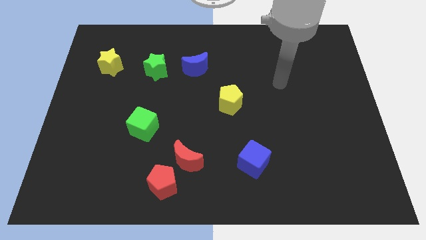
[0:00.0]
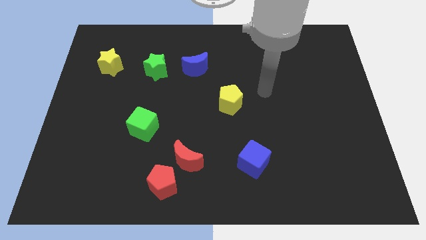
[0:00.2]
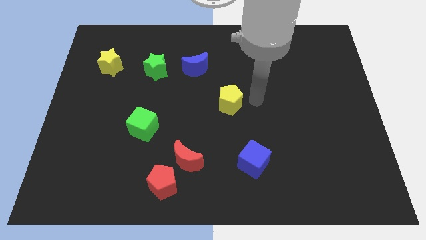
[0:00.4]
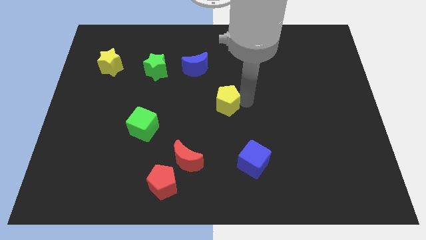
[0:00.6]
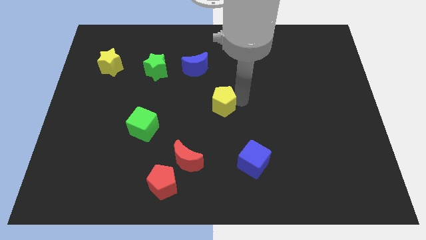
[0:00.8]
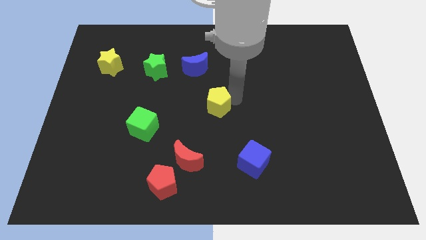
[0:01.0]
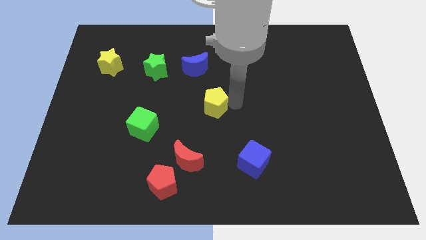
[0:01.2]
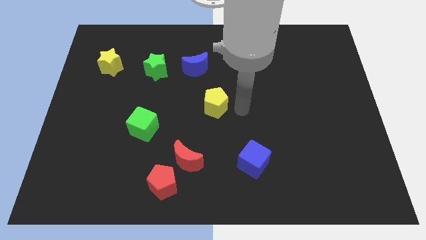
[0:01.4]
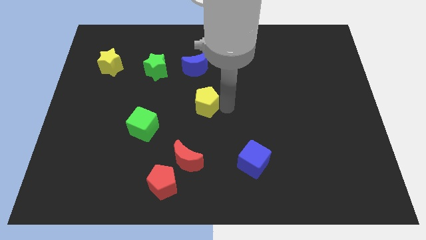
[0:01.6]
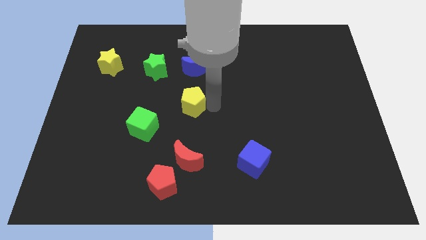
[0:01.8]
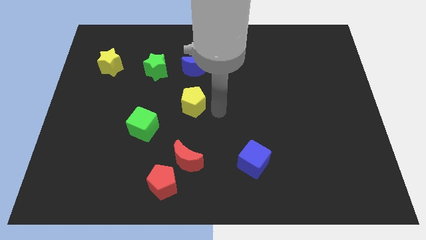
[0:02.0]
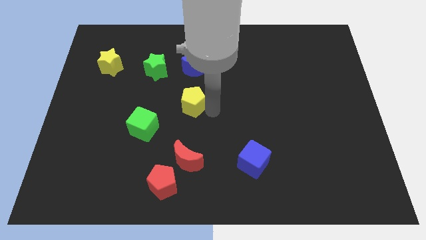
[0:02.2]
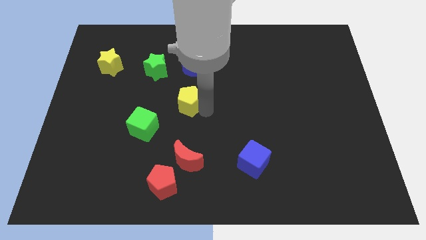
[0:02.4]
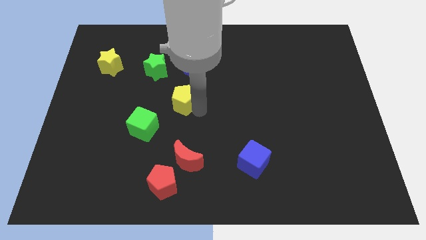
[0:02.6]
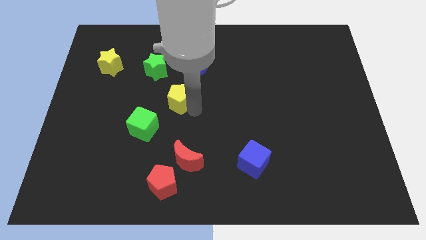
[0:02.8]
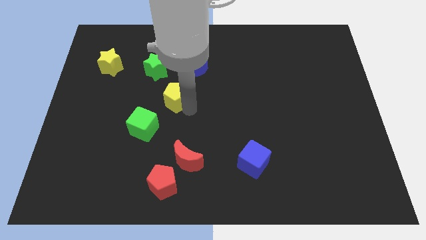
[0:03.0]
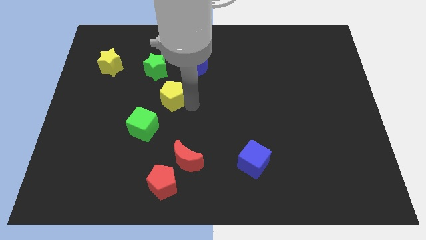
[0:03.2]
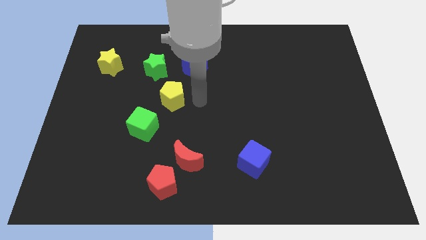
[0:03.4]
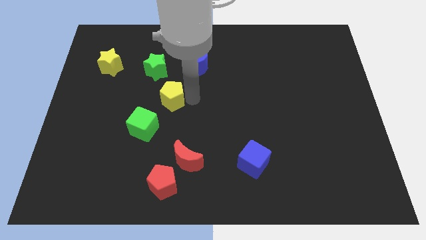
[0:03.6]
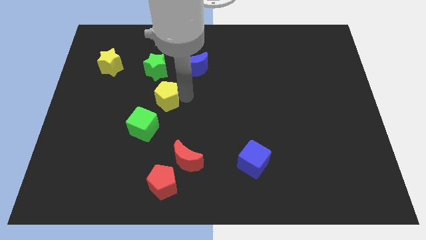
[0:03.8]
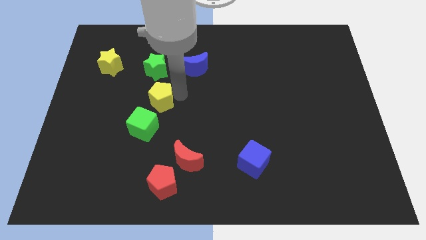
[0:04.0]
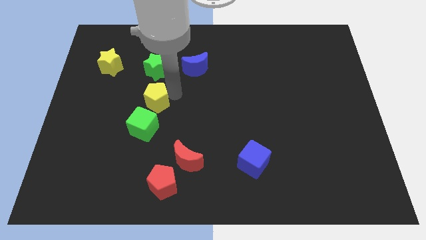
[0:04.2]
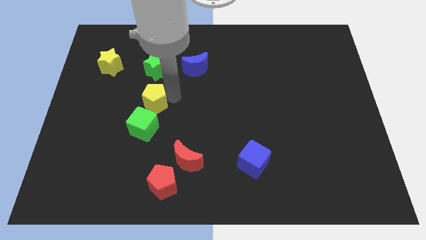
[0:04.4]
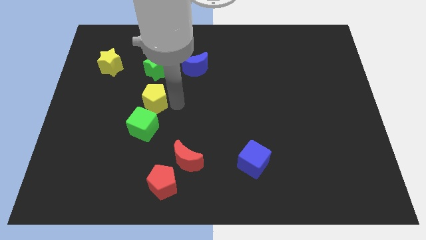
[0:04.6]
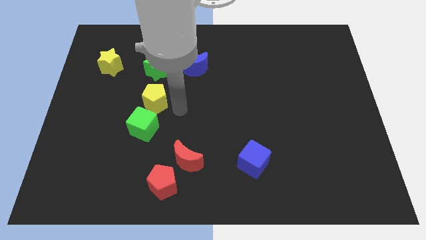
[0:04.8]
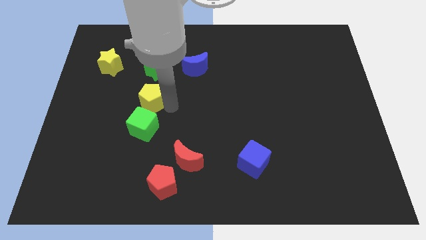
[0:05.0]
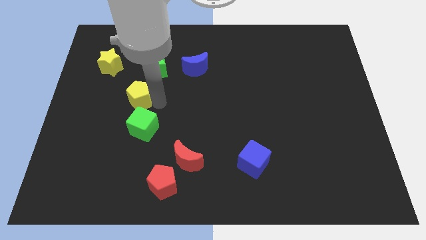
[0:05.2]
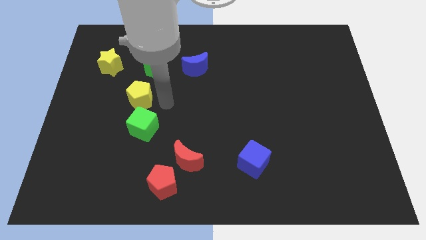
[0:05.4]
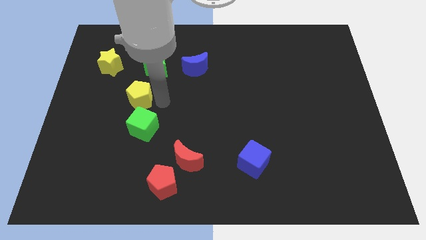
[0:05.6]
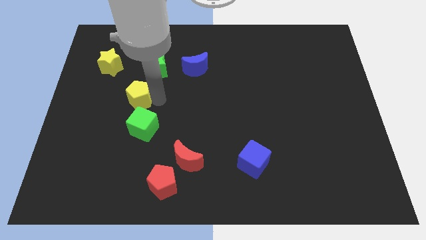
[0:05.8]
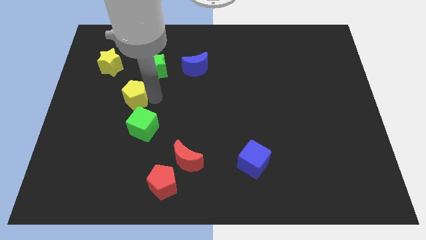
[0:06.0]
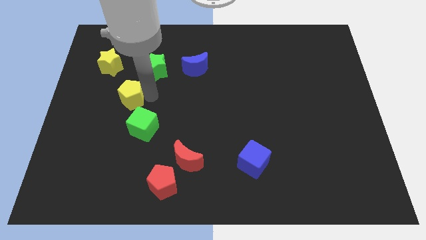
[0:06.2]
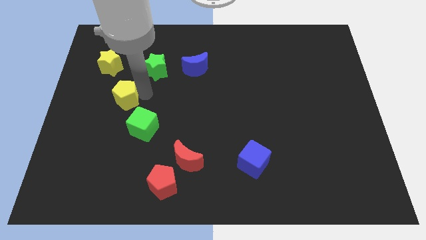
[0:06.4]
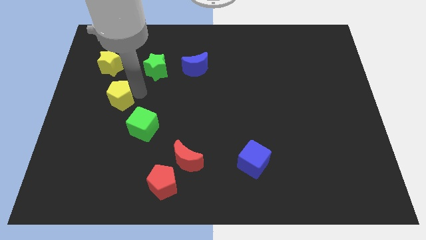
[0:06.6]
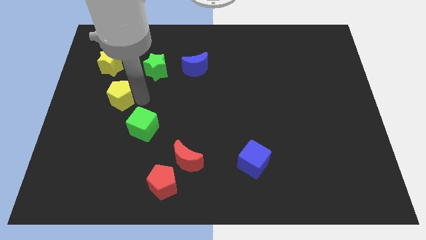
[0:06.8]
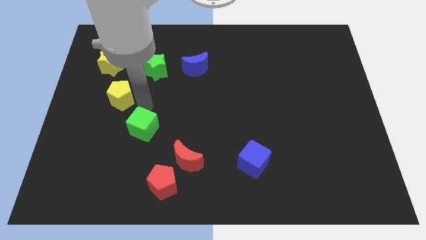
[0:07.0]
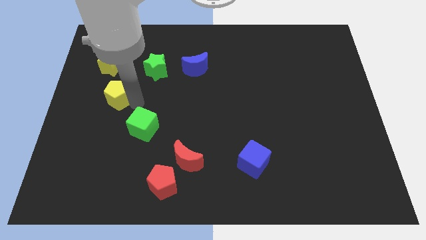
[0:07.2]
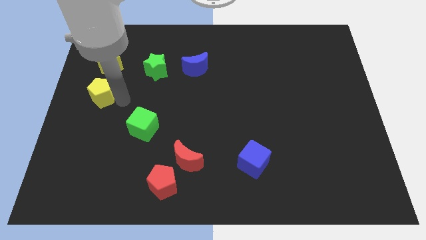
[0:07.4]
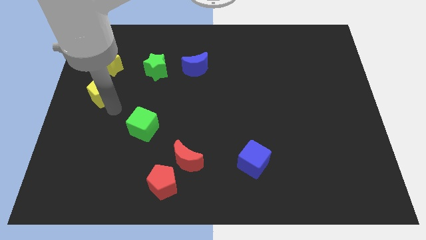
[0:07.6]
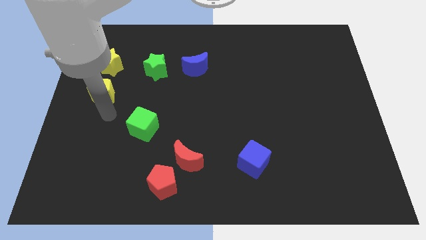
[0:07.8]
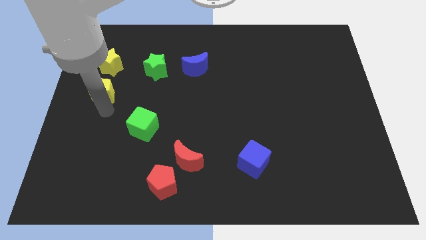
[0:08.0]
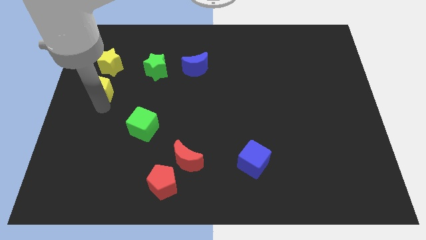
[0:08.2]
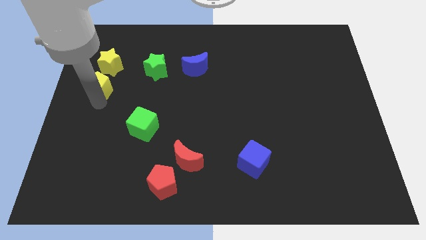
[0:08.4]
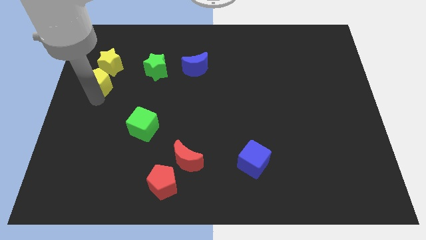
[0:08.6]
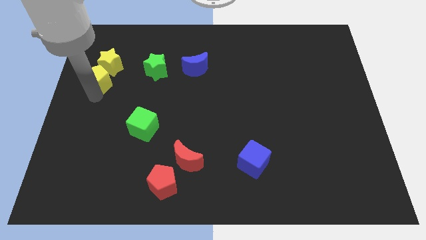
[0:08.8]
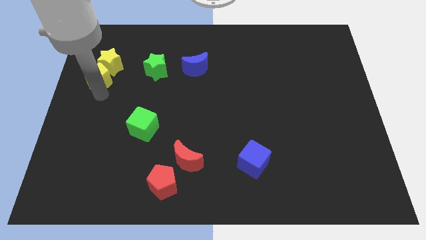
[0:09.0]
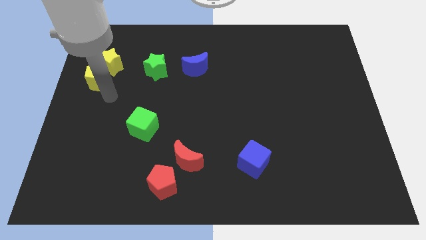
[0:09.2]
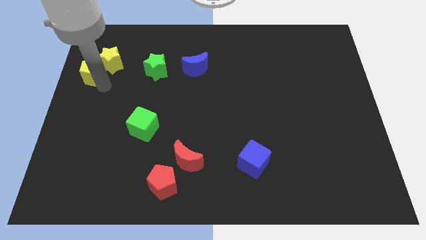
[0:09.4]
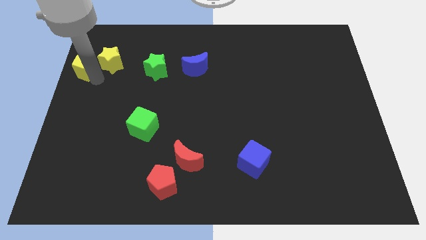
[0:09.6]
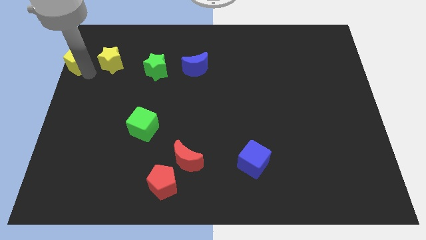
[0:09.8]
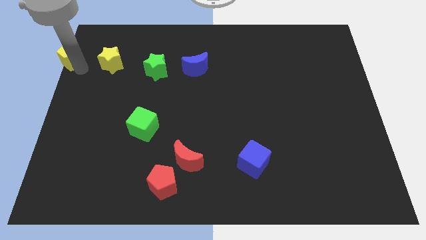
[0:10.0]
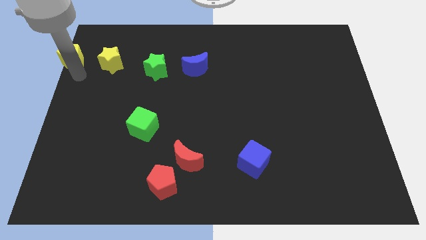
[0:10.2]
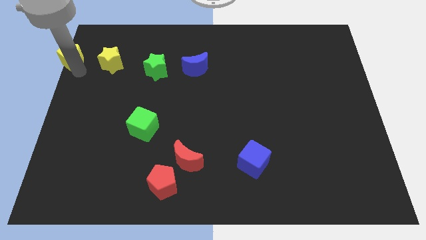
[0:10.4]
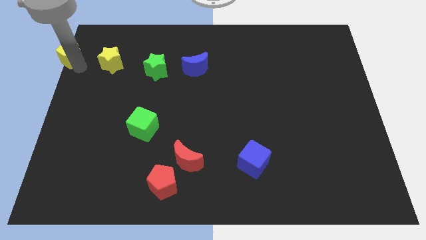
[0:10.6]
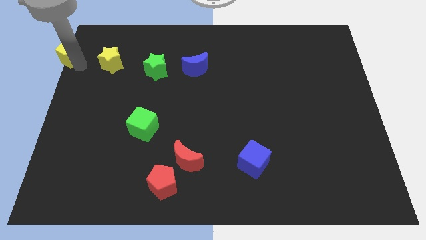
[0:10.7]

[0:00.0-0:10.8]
slide the yellow pentagon to the top left of the board
